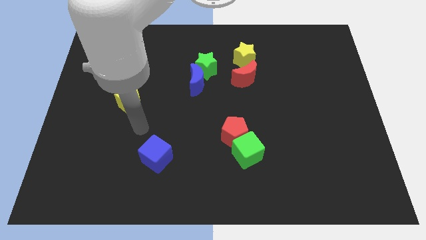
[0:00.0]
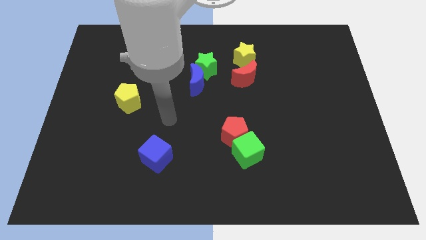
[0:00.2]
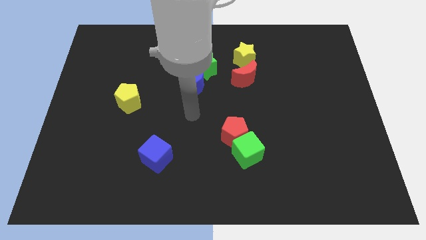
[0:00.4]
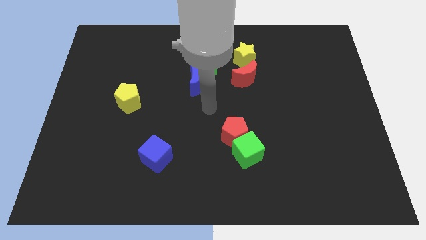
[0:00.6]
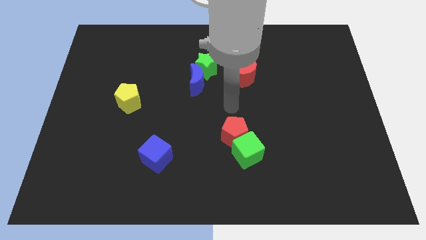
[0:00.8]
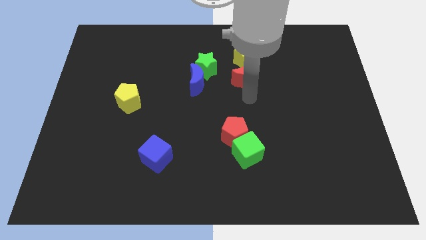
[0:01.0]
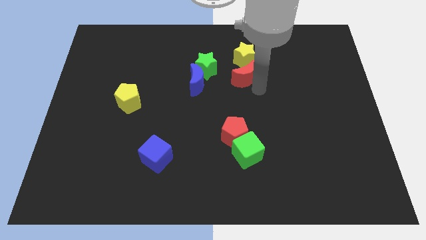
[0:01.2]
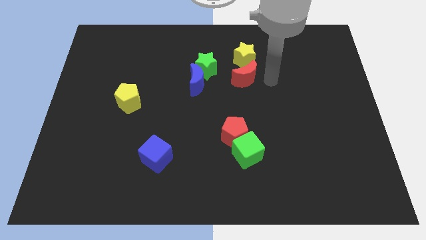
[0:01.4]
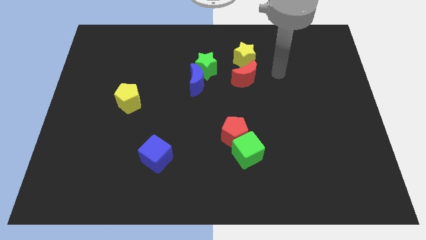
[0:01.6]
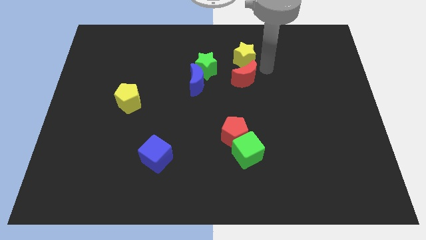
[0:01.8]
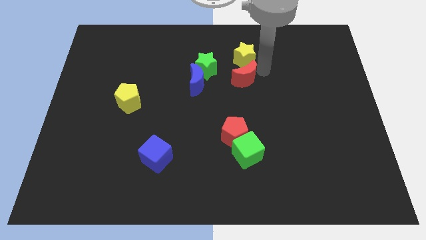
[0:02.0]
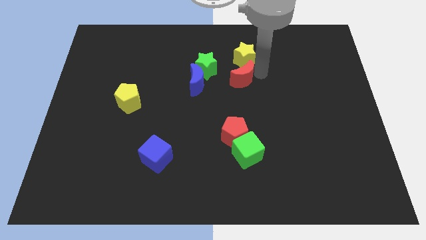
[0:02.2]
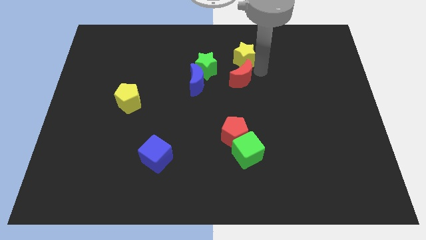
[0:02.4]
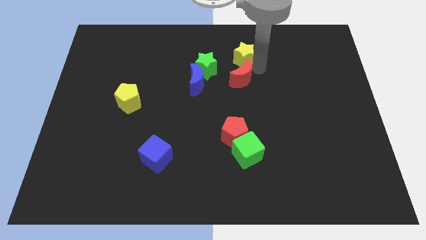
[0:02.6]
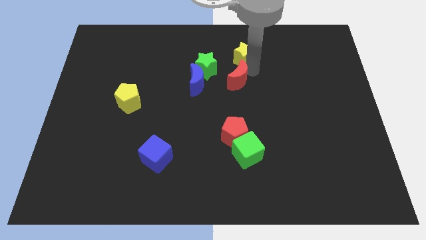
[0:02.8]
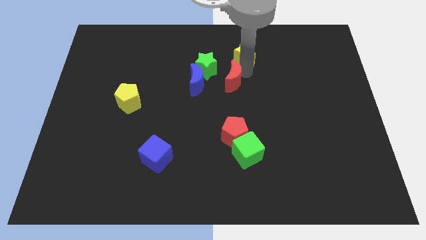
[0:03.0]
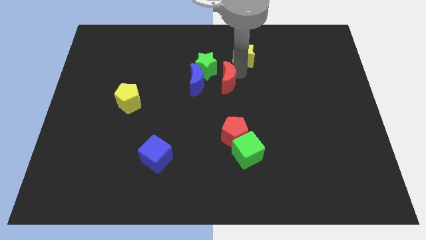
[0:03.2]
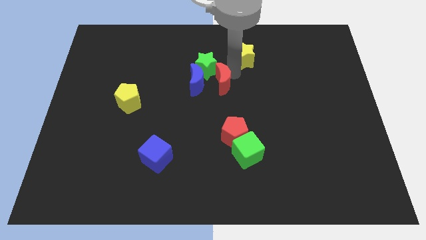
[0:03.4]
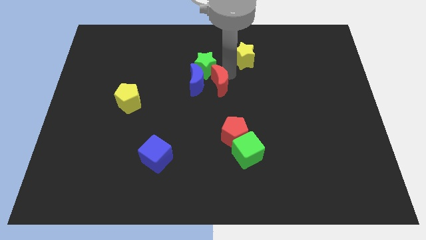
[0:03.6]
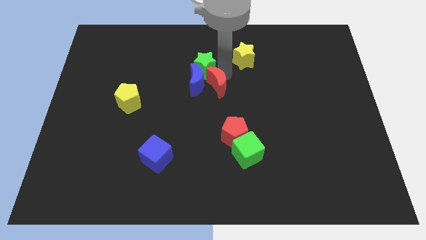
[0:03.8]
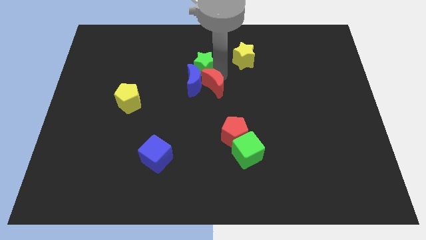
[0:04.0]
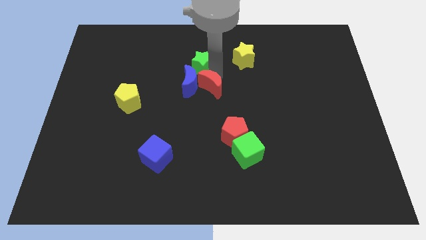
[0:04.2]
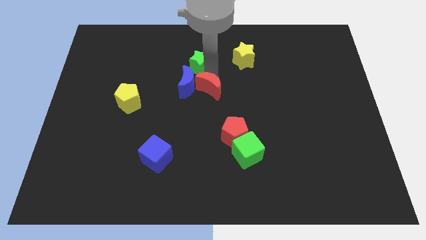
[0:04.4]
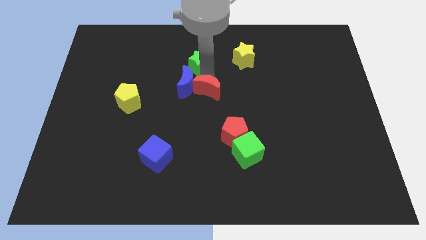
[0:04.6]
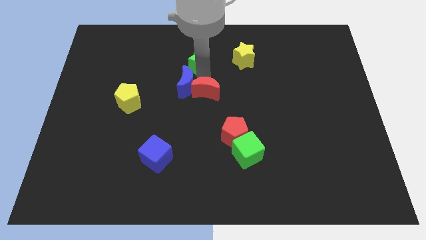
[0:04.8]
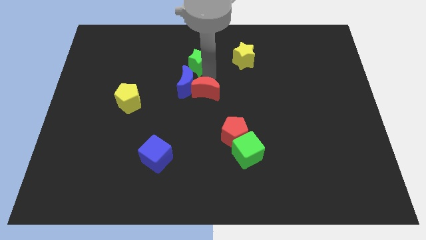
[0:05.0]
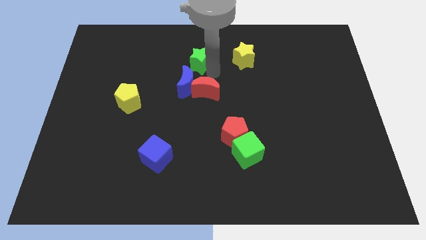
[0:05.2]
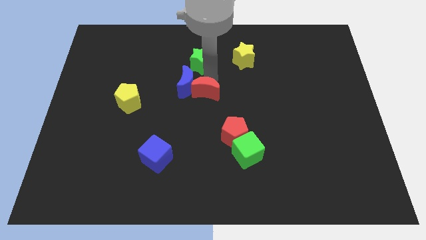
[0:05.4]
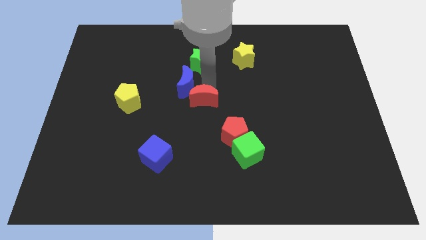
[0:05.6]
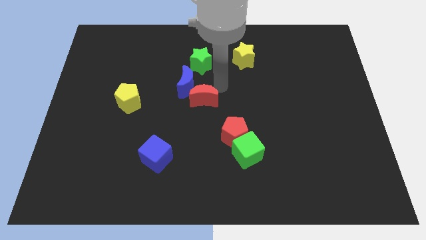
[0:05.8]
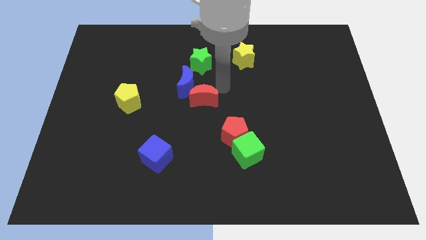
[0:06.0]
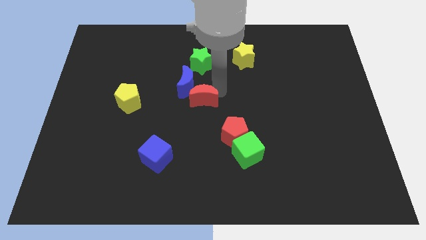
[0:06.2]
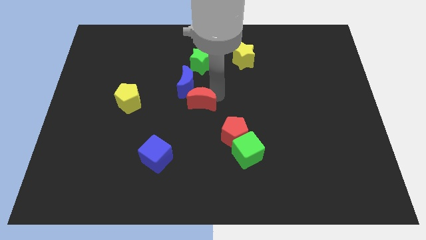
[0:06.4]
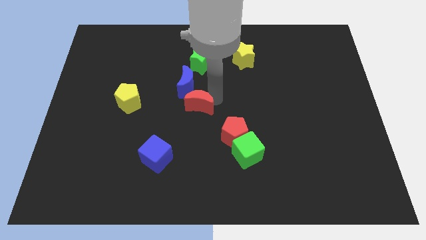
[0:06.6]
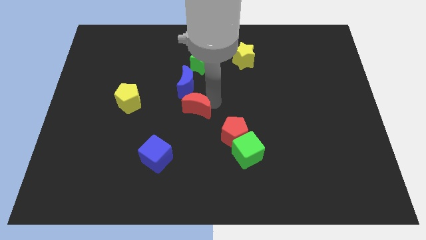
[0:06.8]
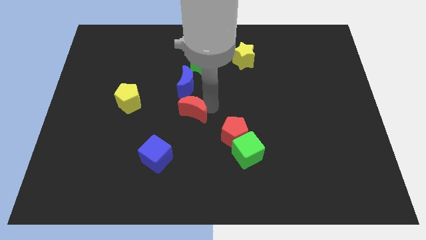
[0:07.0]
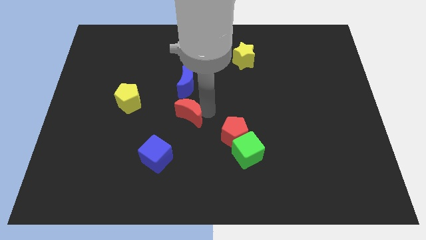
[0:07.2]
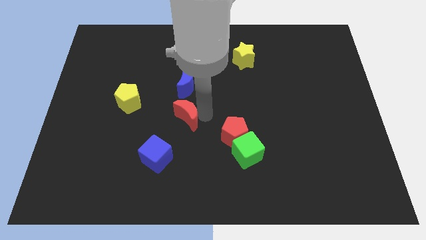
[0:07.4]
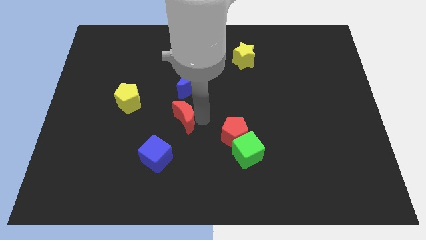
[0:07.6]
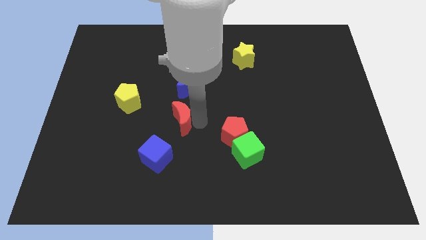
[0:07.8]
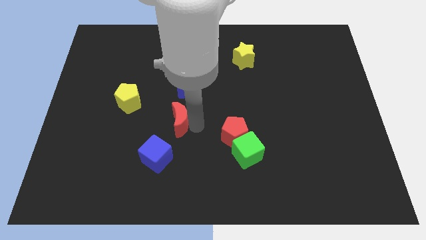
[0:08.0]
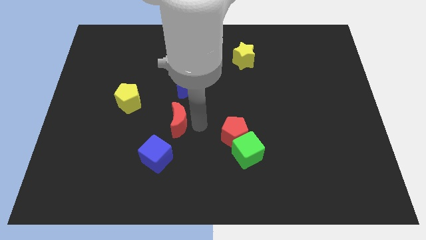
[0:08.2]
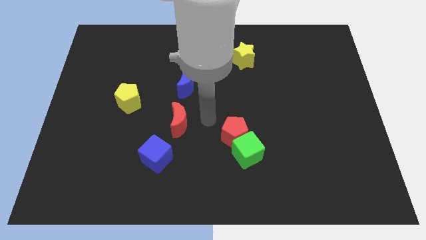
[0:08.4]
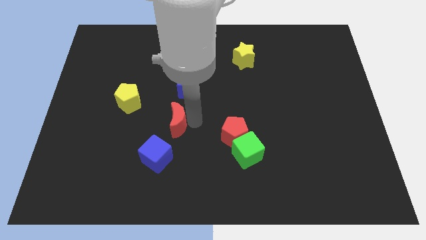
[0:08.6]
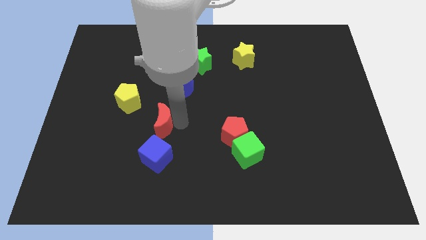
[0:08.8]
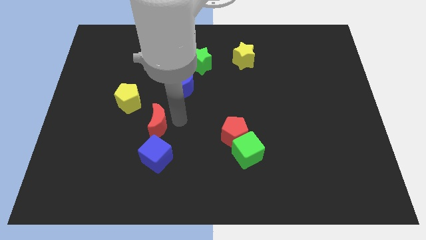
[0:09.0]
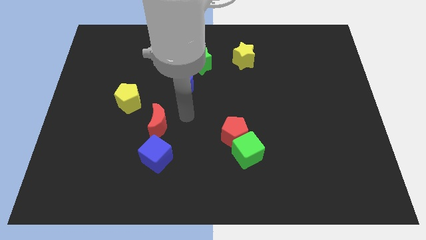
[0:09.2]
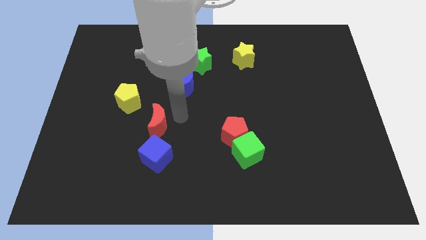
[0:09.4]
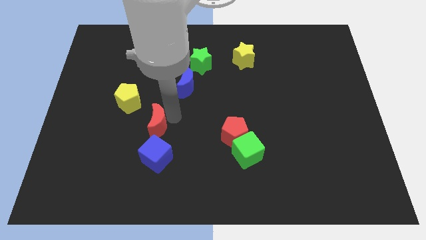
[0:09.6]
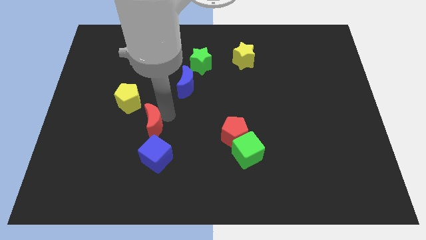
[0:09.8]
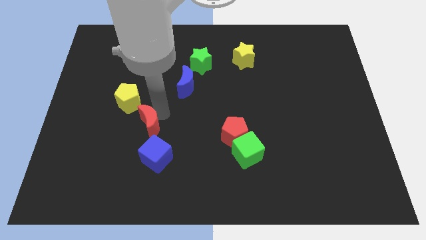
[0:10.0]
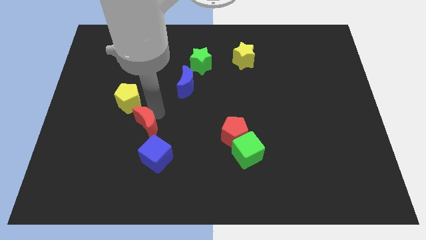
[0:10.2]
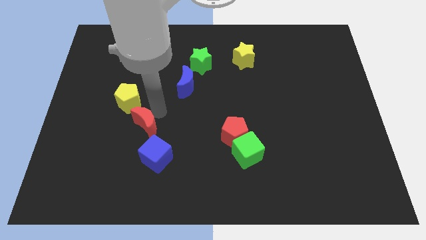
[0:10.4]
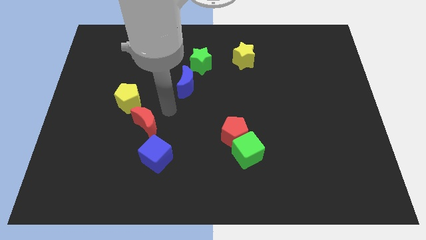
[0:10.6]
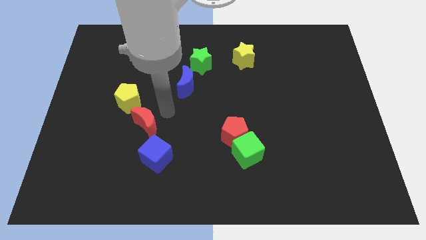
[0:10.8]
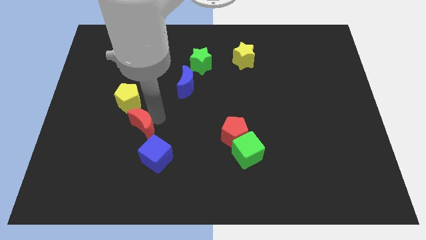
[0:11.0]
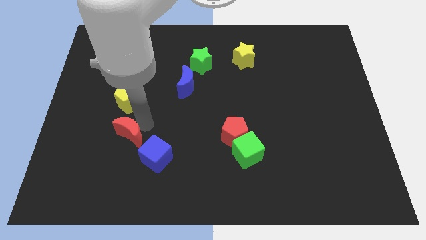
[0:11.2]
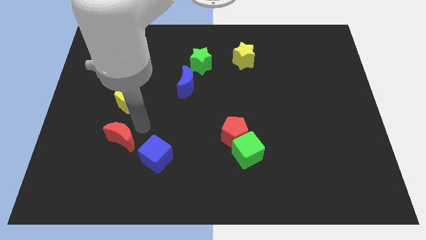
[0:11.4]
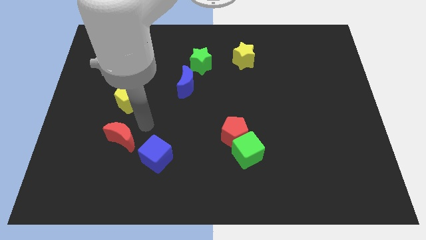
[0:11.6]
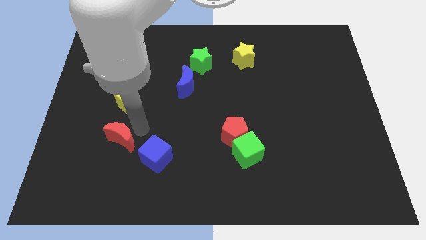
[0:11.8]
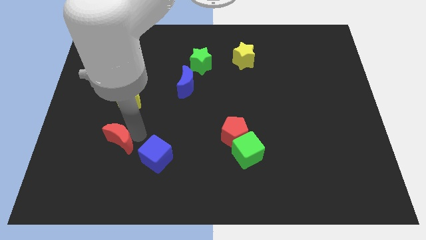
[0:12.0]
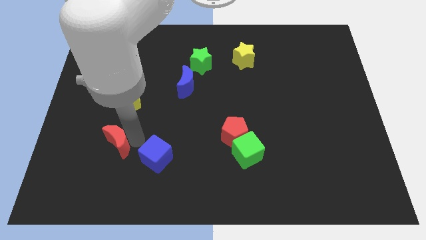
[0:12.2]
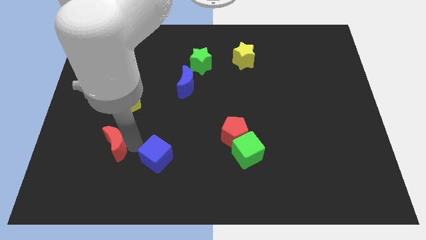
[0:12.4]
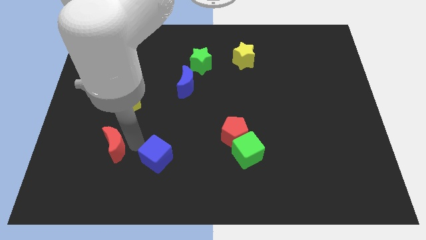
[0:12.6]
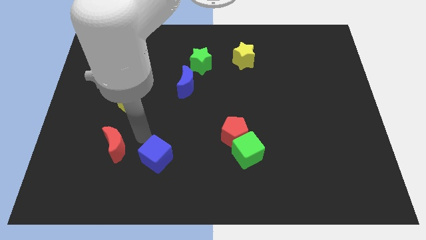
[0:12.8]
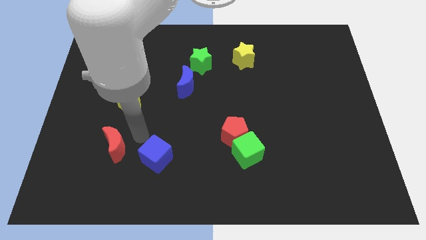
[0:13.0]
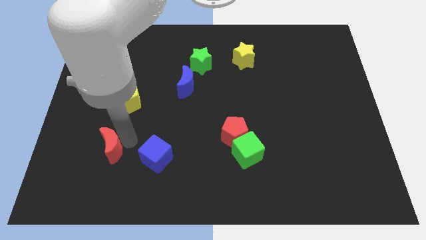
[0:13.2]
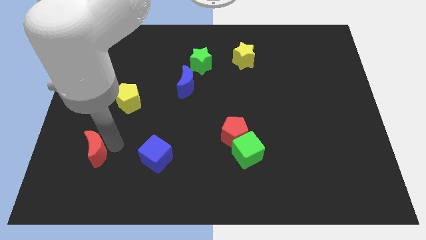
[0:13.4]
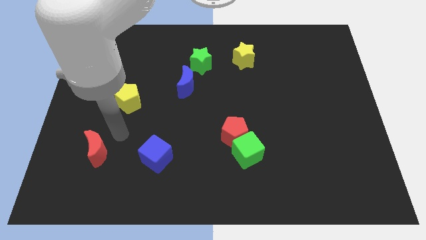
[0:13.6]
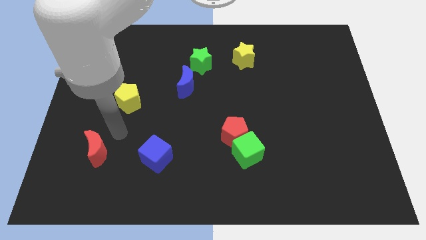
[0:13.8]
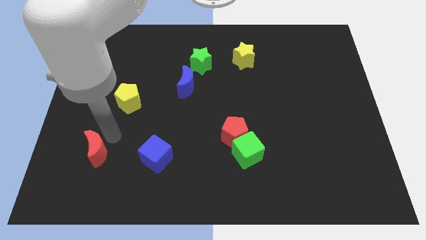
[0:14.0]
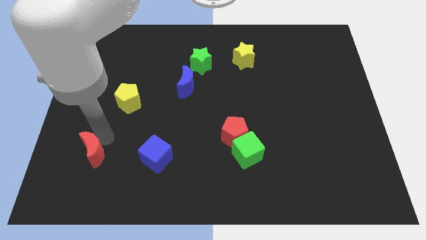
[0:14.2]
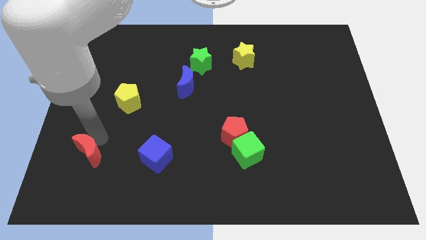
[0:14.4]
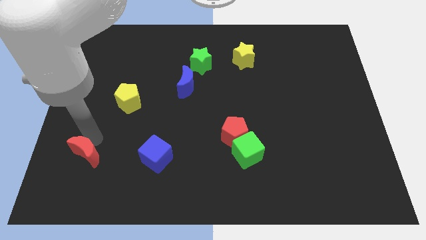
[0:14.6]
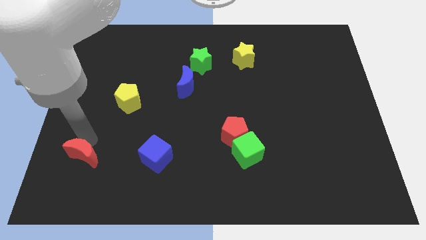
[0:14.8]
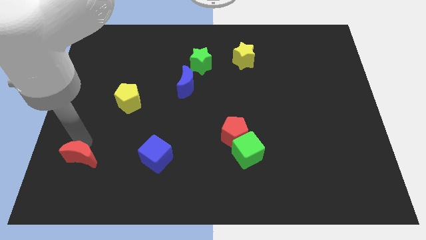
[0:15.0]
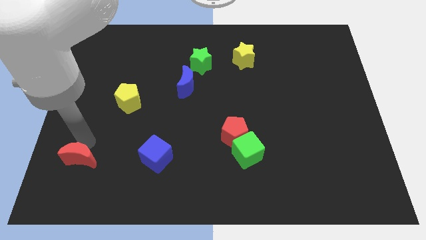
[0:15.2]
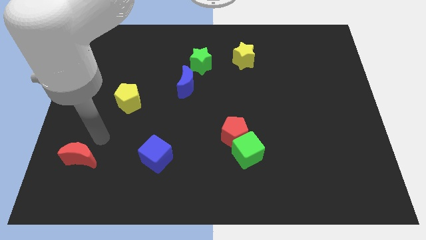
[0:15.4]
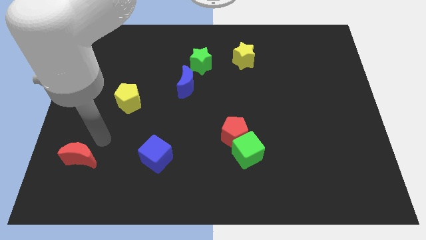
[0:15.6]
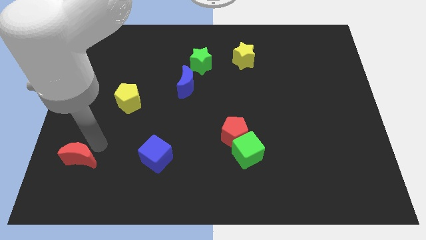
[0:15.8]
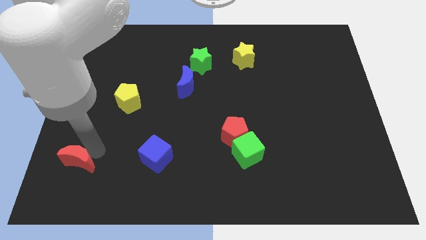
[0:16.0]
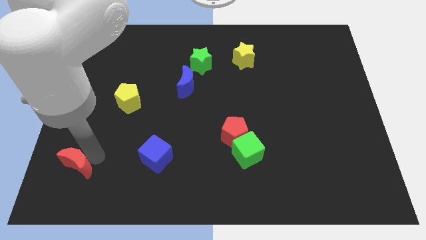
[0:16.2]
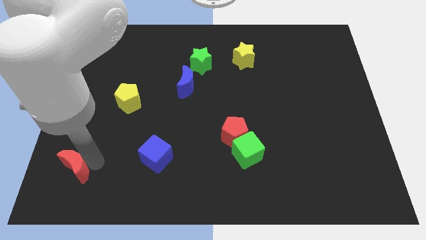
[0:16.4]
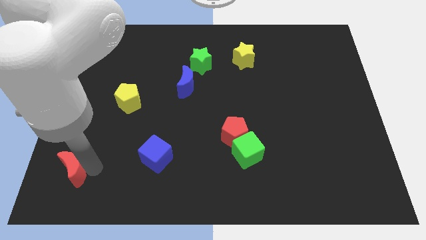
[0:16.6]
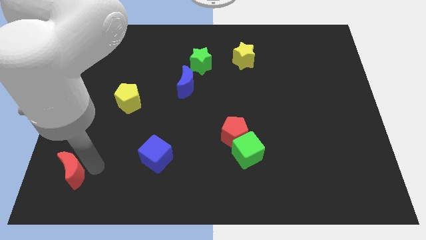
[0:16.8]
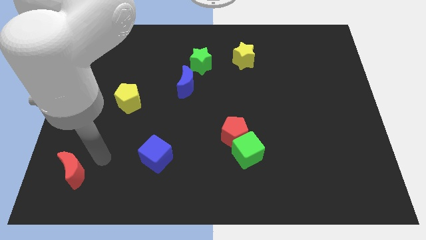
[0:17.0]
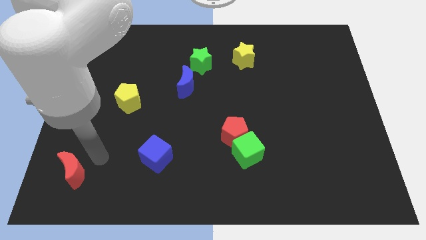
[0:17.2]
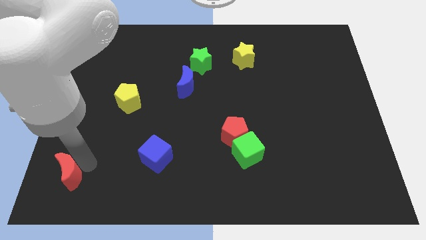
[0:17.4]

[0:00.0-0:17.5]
move the red moon to the bottom left of the board
